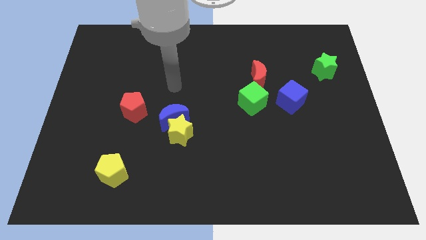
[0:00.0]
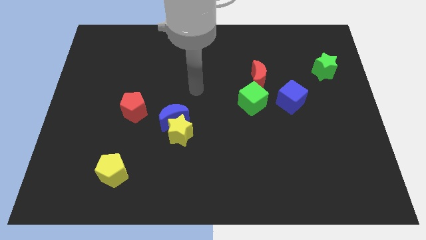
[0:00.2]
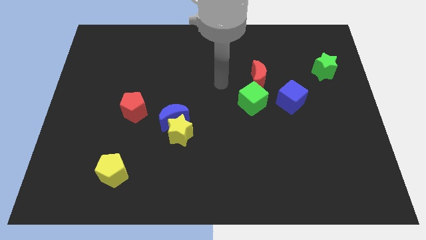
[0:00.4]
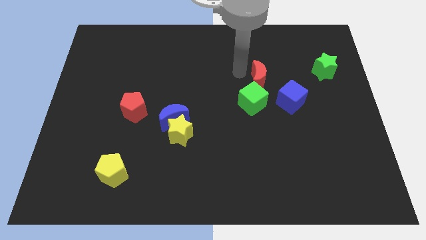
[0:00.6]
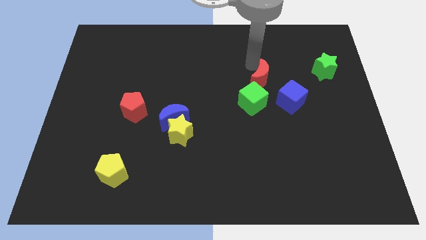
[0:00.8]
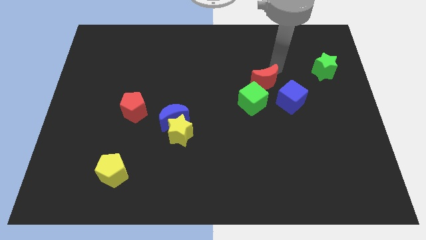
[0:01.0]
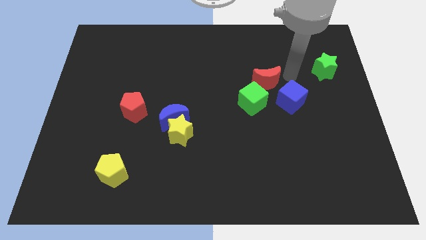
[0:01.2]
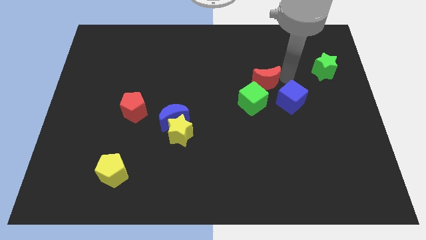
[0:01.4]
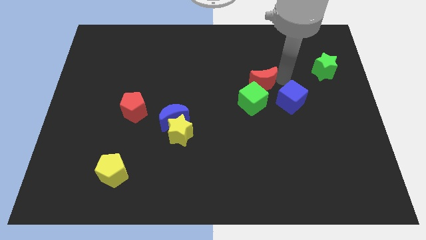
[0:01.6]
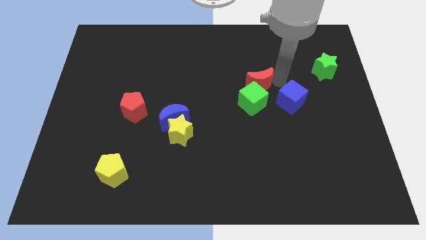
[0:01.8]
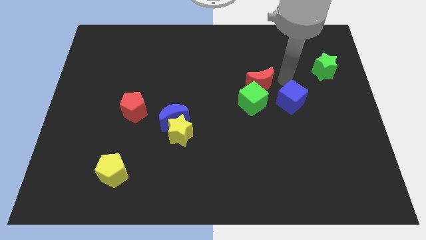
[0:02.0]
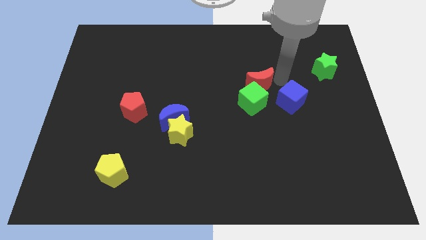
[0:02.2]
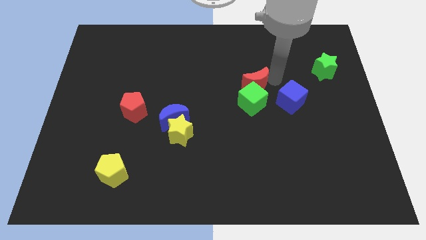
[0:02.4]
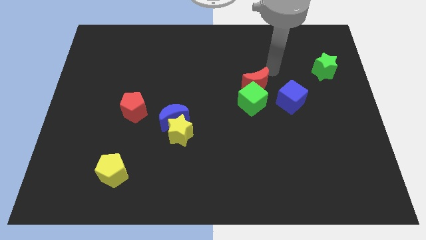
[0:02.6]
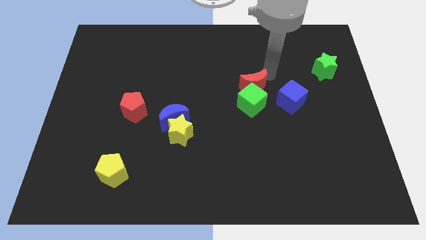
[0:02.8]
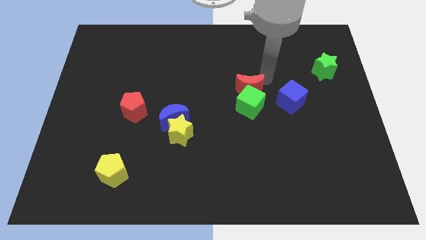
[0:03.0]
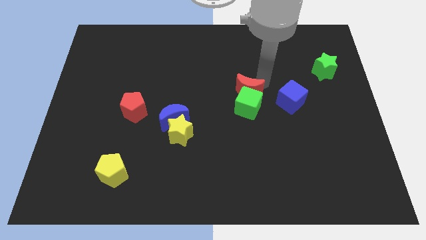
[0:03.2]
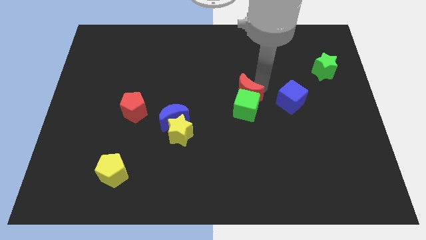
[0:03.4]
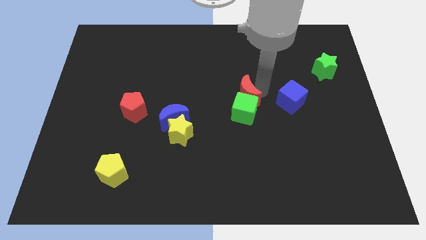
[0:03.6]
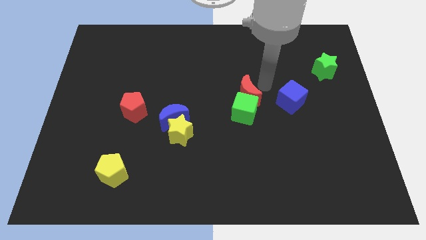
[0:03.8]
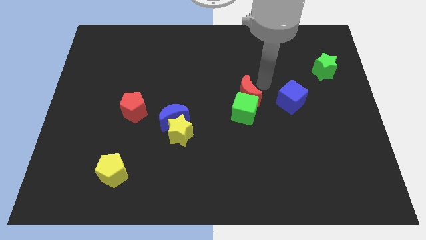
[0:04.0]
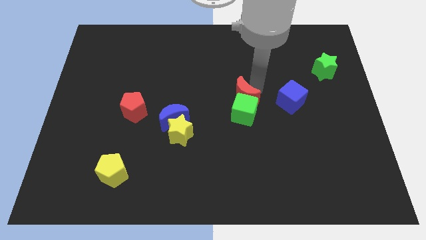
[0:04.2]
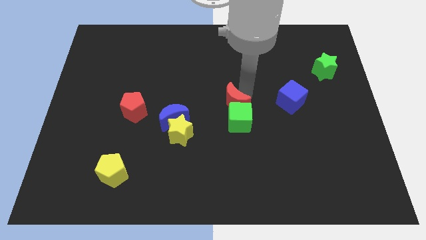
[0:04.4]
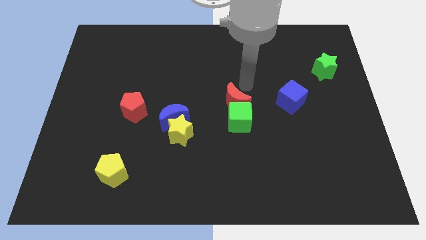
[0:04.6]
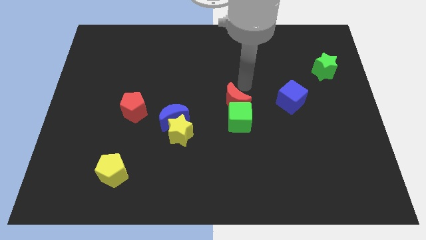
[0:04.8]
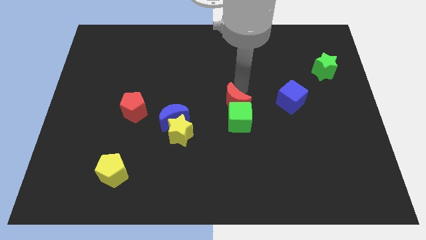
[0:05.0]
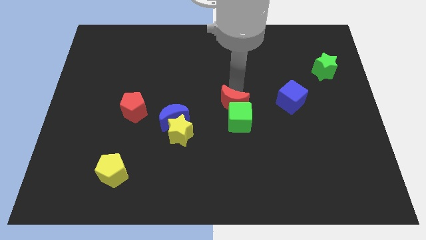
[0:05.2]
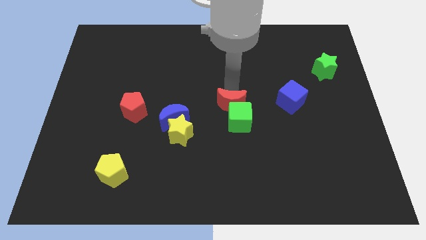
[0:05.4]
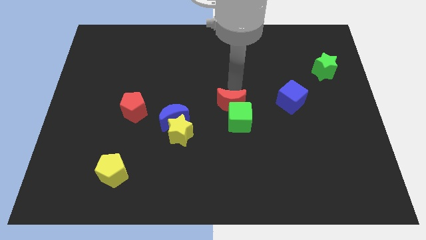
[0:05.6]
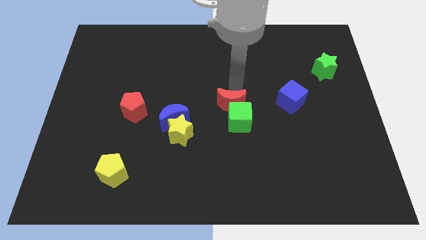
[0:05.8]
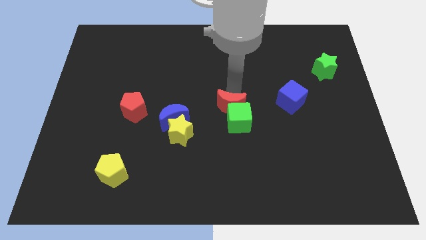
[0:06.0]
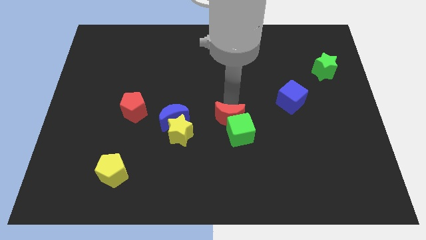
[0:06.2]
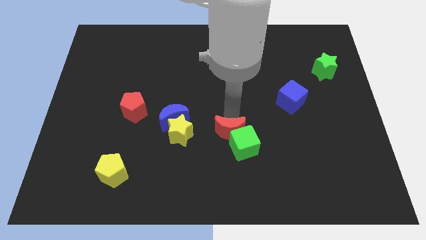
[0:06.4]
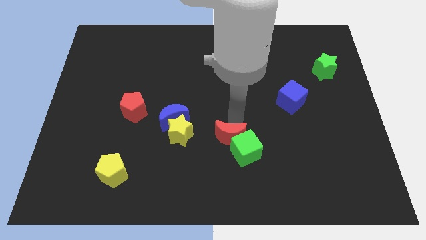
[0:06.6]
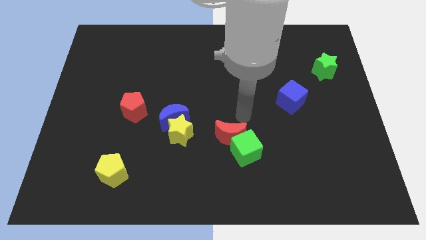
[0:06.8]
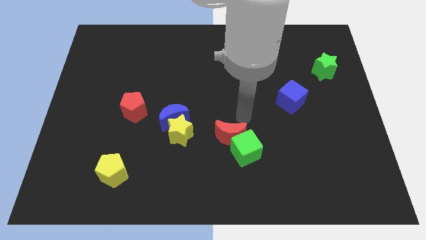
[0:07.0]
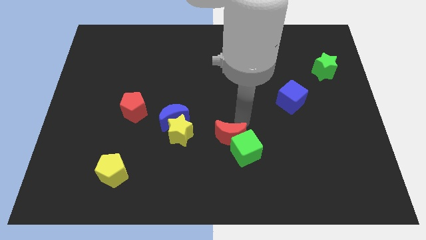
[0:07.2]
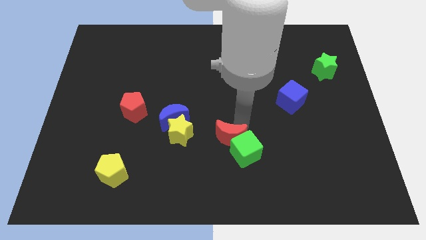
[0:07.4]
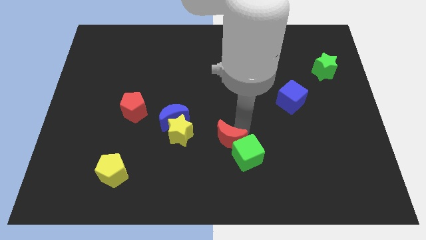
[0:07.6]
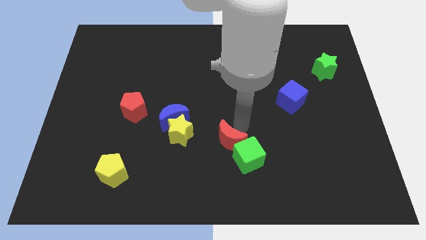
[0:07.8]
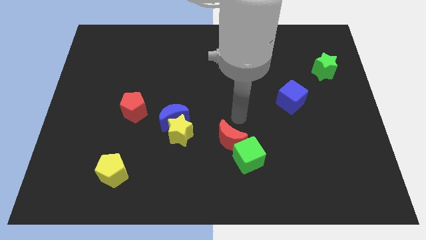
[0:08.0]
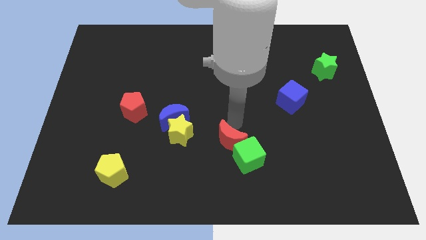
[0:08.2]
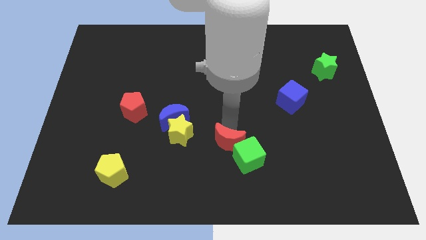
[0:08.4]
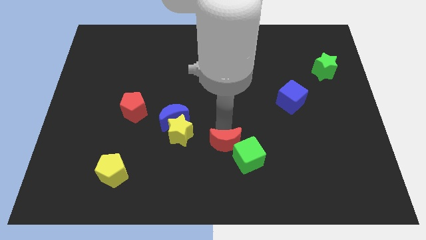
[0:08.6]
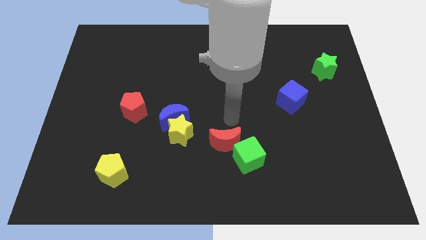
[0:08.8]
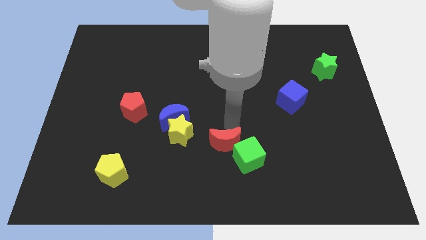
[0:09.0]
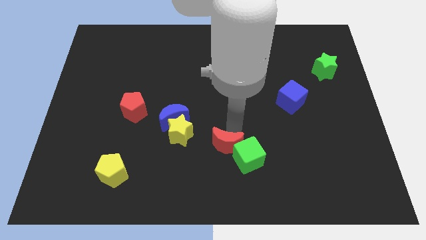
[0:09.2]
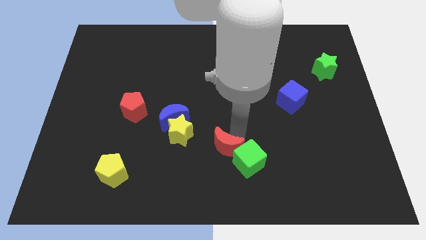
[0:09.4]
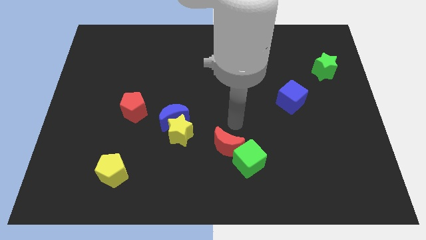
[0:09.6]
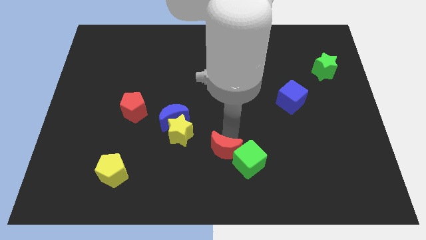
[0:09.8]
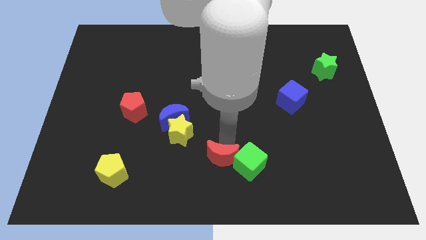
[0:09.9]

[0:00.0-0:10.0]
slide the red moon to the bottom
